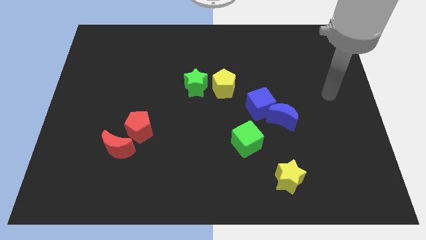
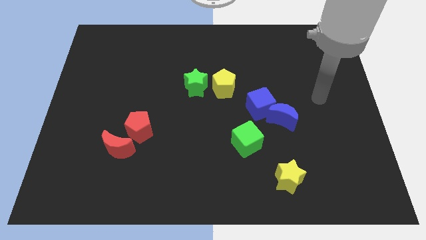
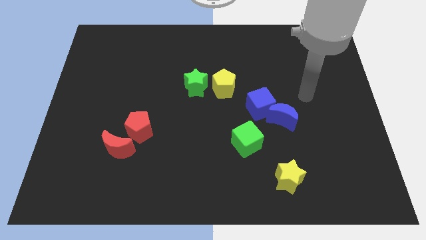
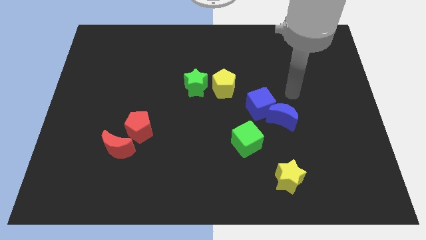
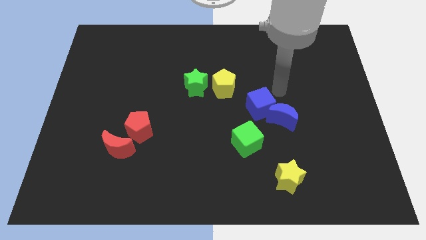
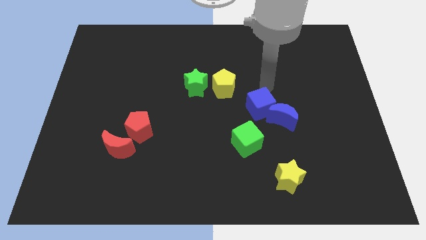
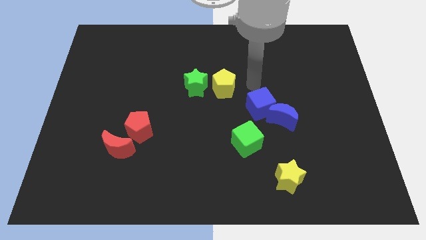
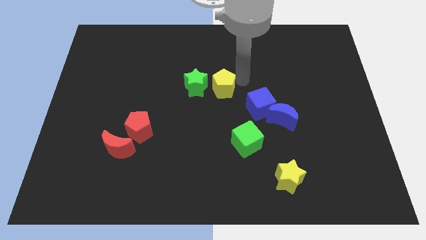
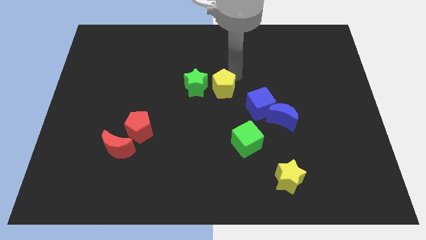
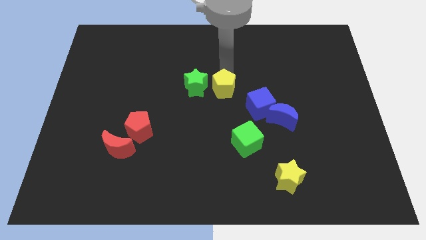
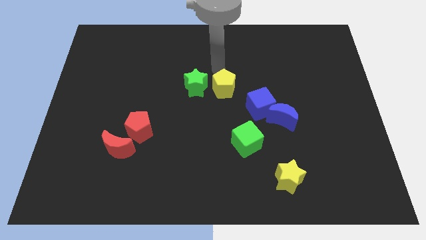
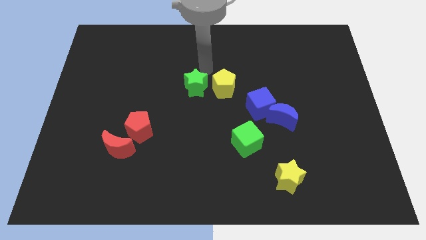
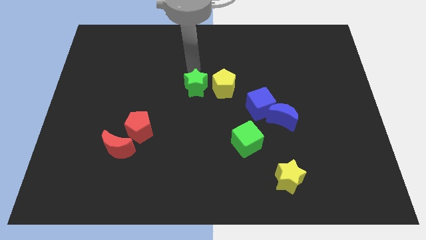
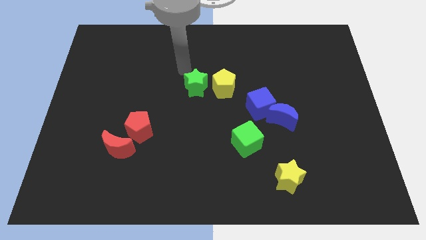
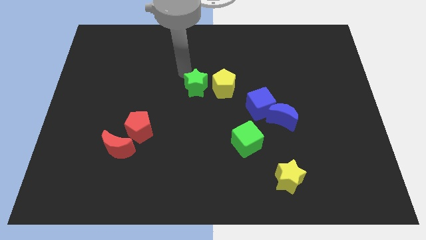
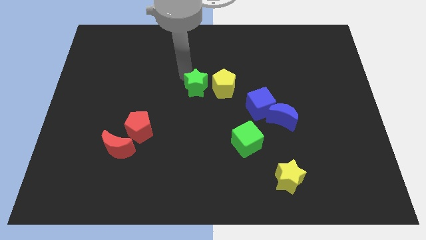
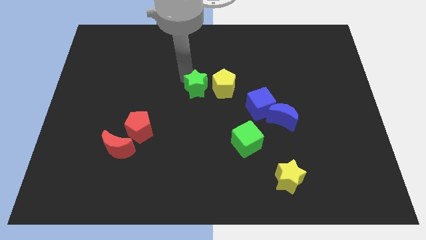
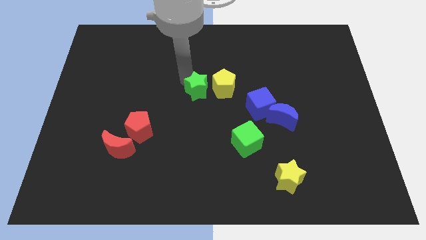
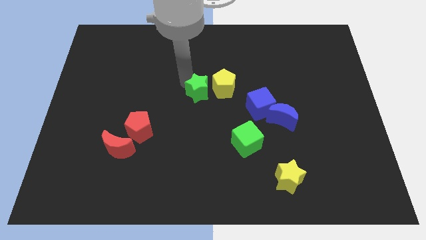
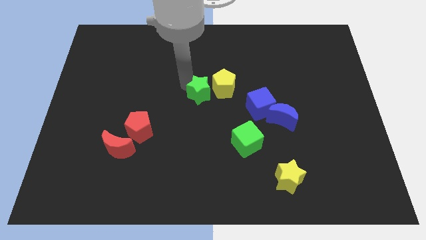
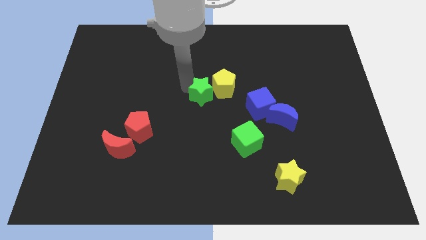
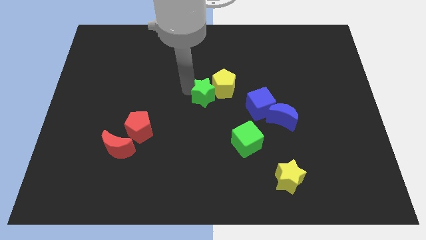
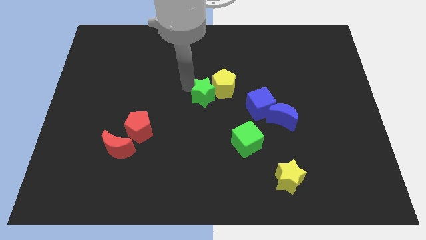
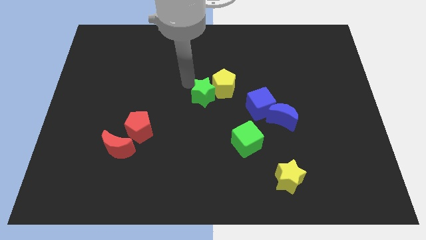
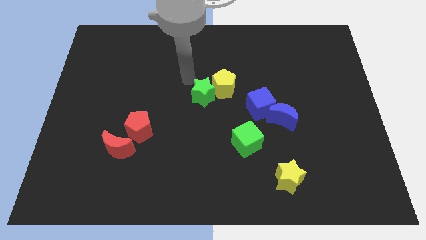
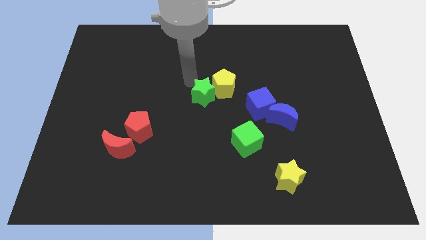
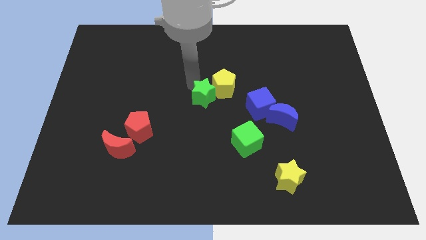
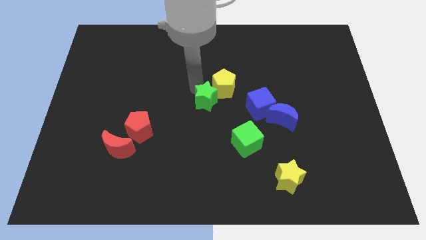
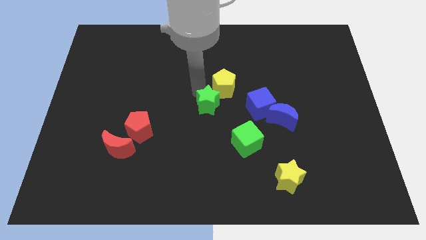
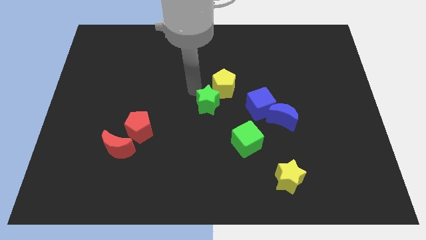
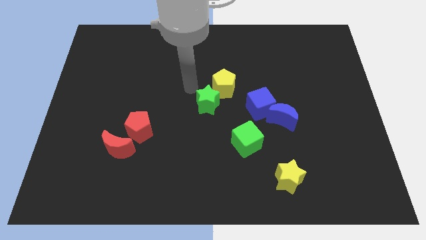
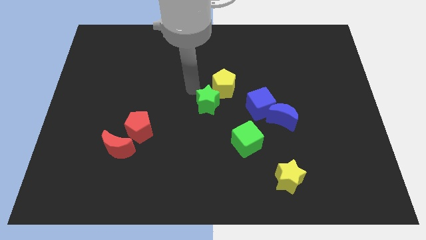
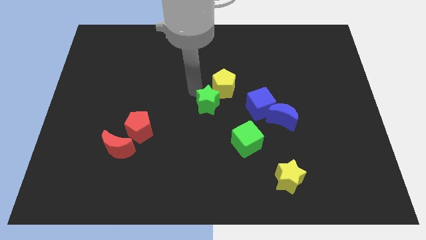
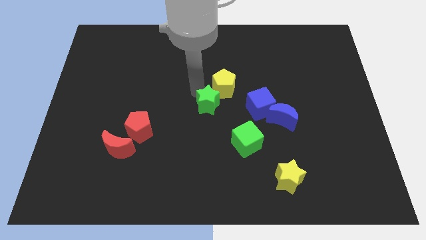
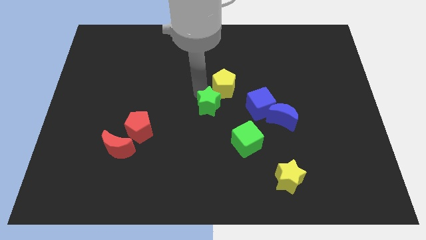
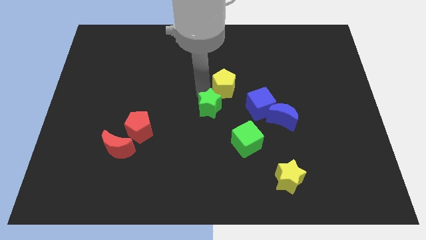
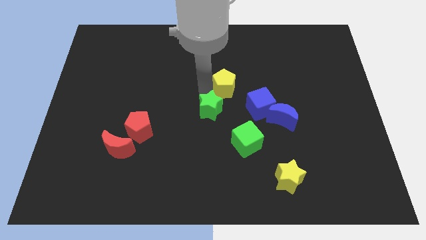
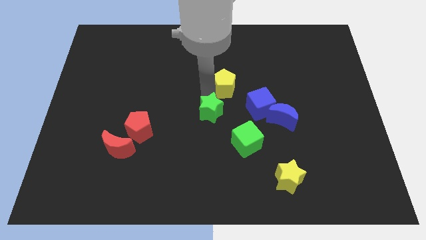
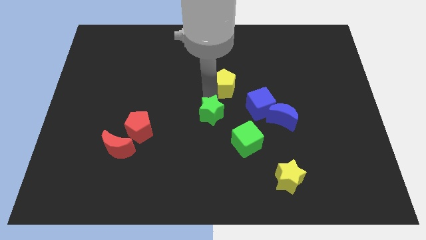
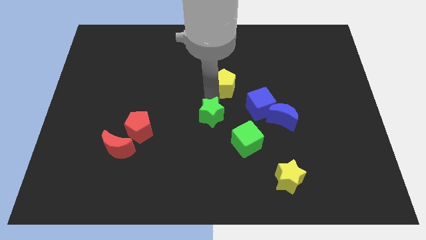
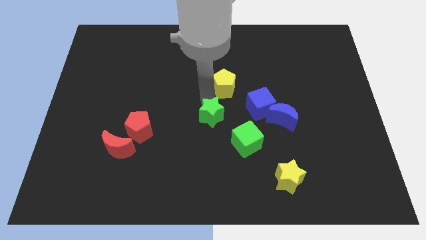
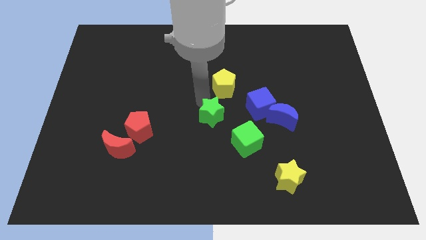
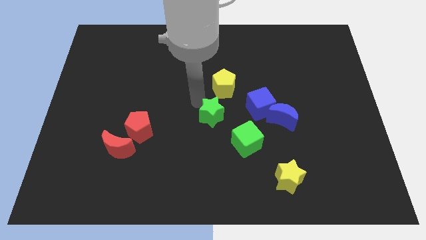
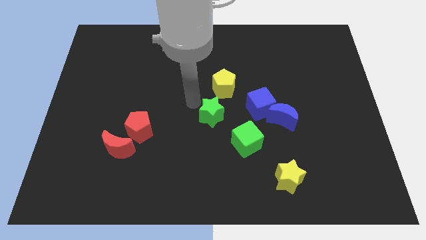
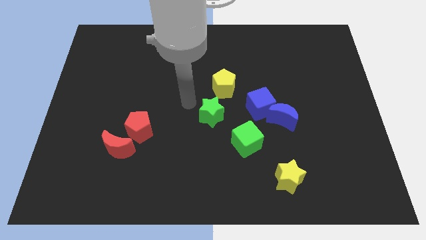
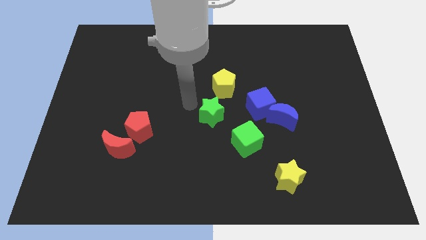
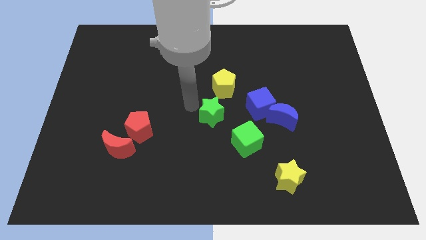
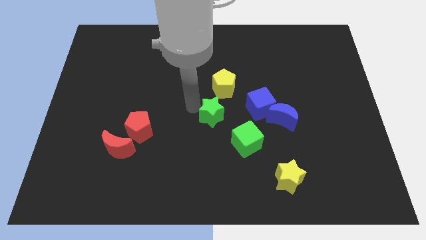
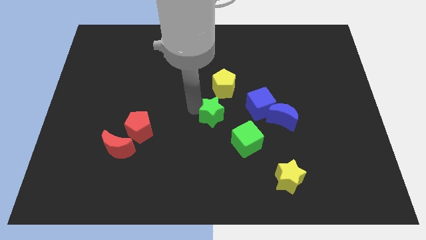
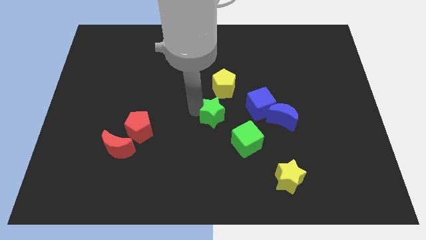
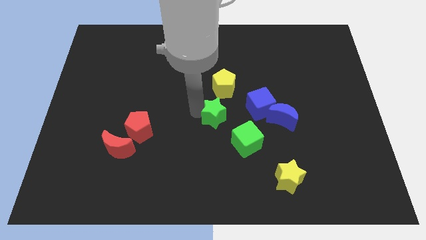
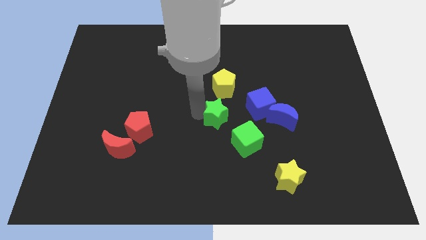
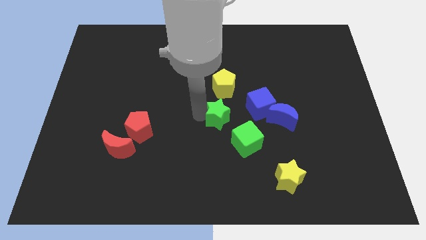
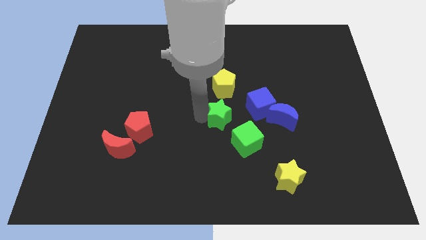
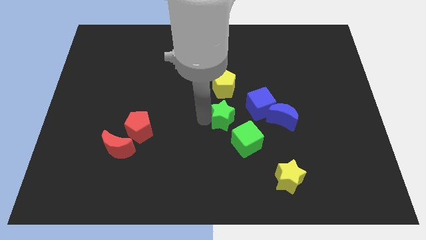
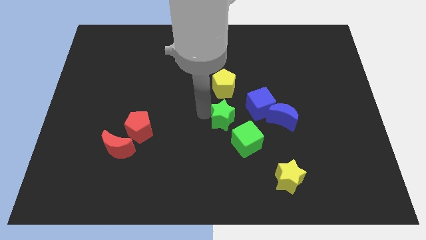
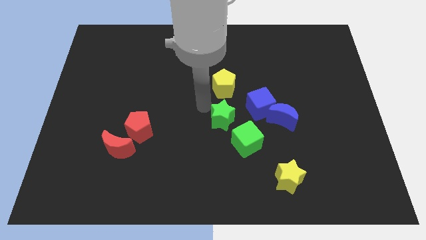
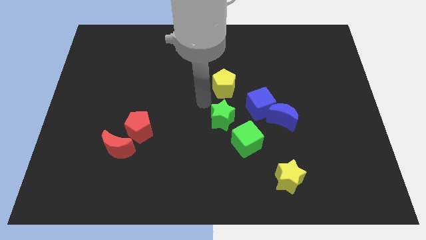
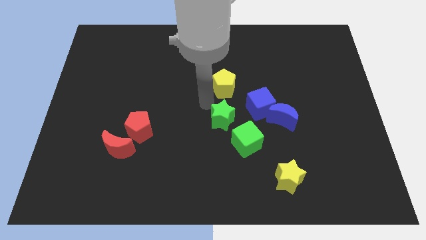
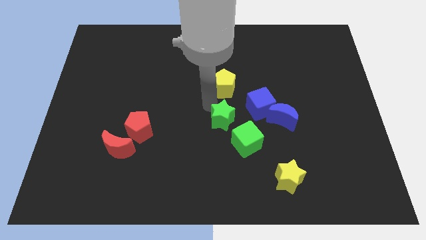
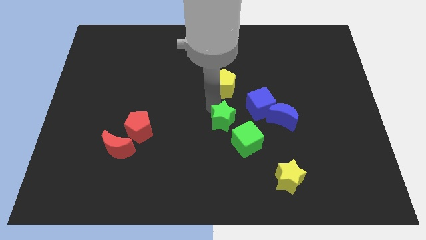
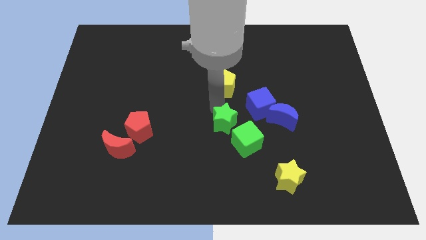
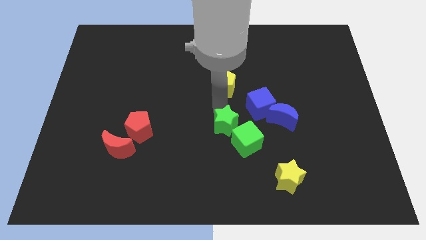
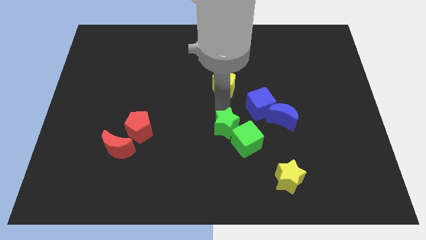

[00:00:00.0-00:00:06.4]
put the green star to the green cube
